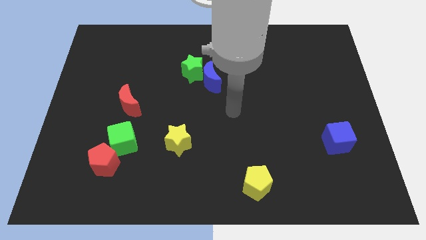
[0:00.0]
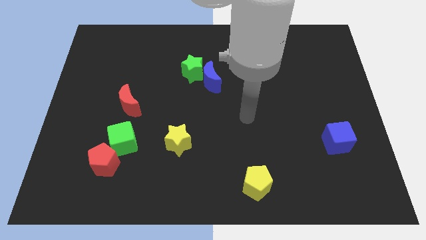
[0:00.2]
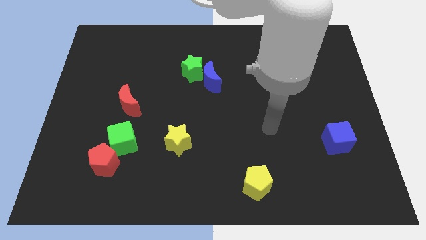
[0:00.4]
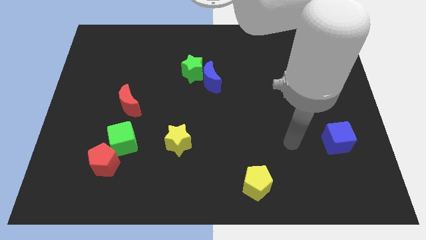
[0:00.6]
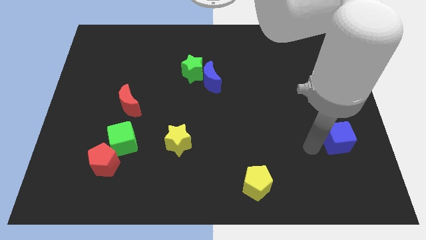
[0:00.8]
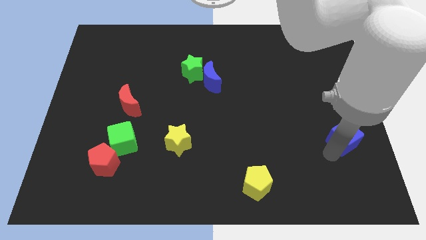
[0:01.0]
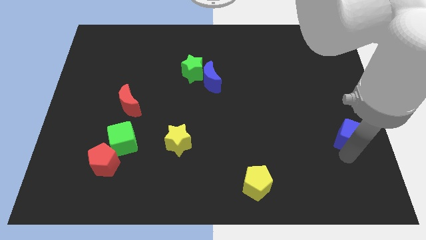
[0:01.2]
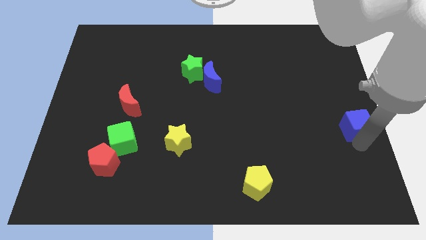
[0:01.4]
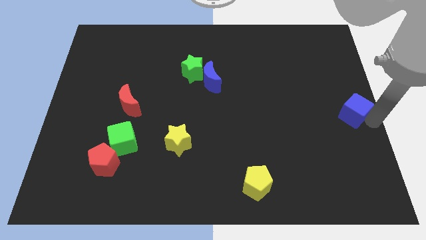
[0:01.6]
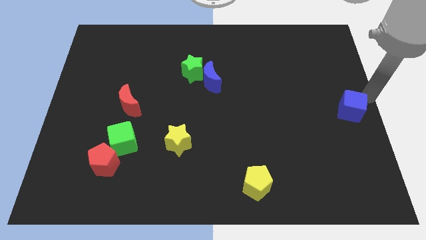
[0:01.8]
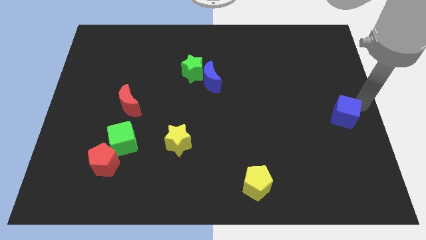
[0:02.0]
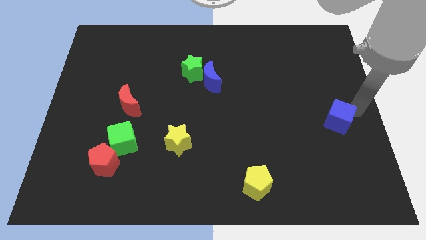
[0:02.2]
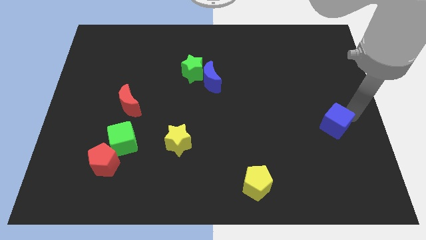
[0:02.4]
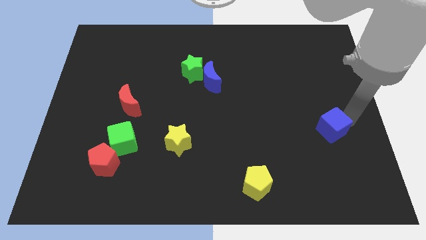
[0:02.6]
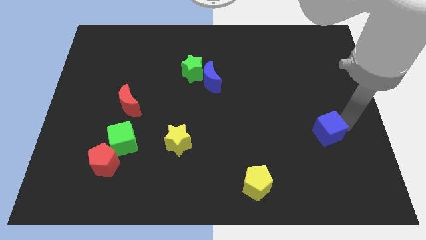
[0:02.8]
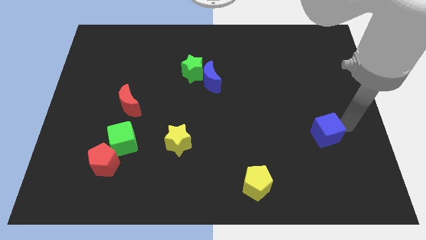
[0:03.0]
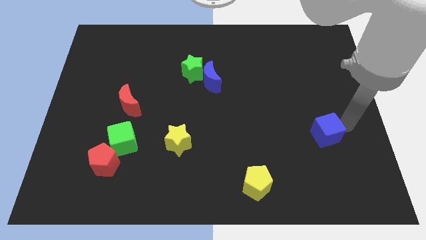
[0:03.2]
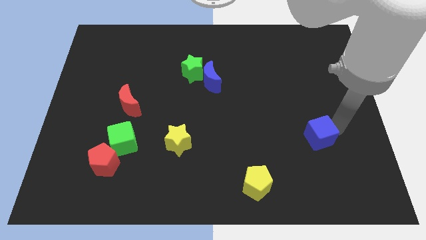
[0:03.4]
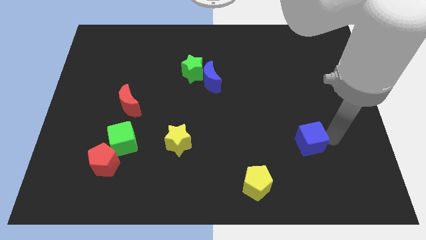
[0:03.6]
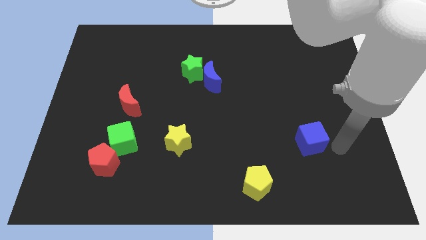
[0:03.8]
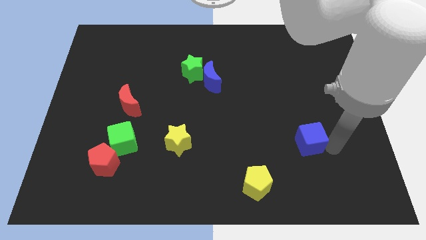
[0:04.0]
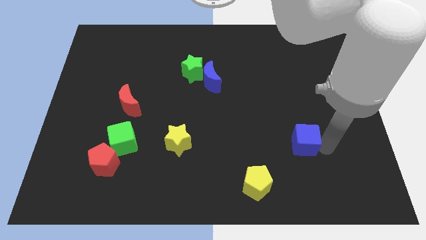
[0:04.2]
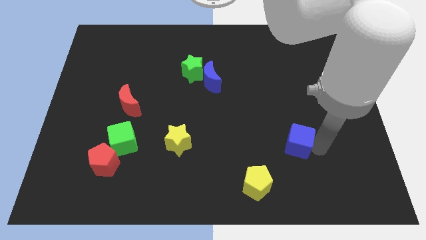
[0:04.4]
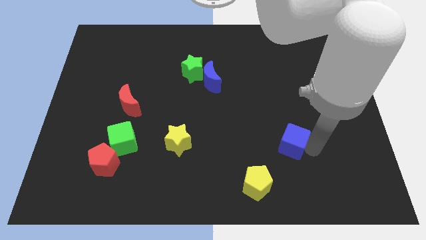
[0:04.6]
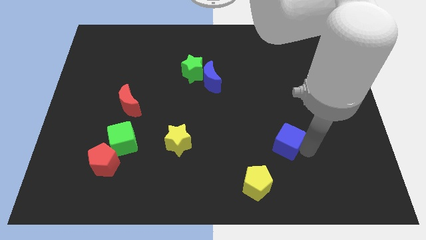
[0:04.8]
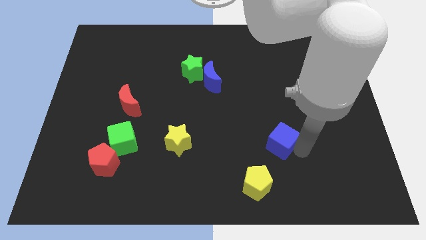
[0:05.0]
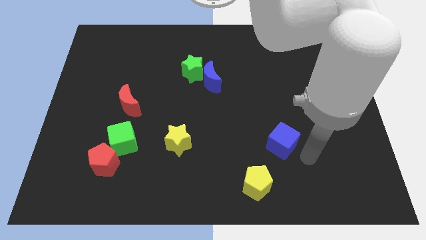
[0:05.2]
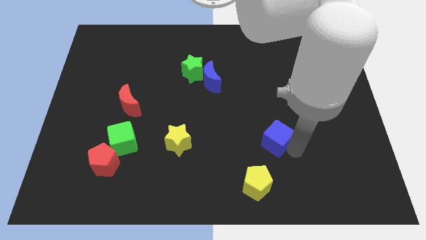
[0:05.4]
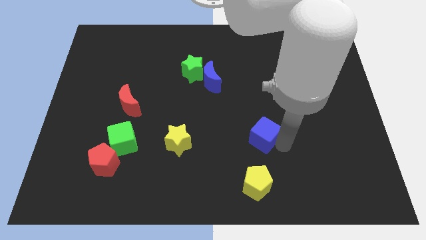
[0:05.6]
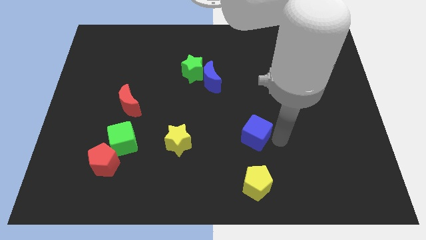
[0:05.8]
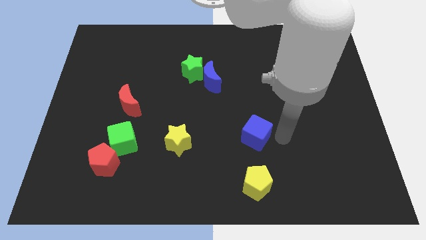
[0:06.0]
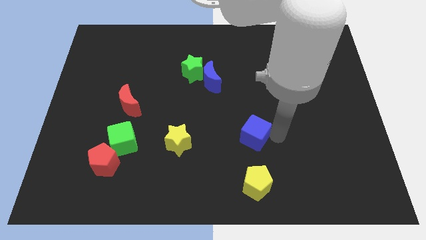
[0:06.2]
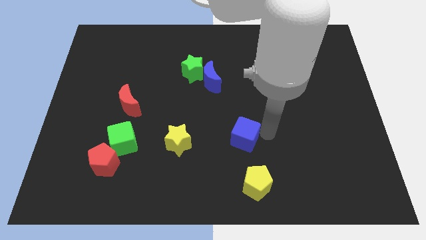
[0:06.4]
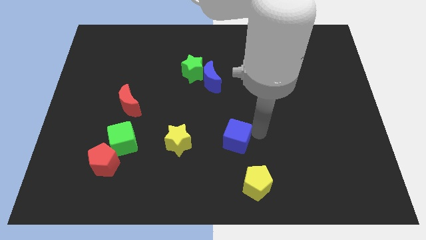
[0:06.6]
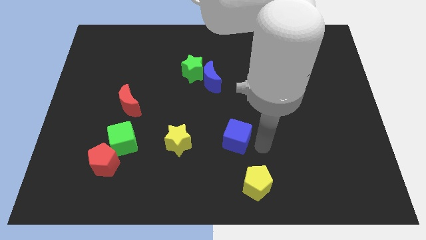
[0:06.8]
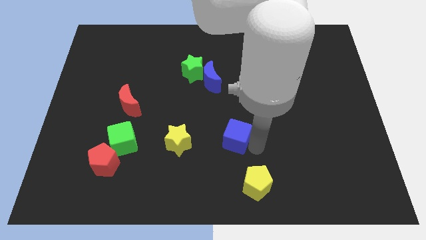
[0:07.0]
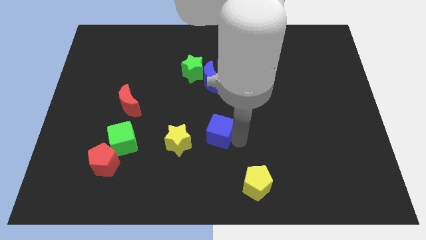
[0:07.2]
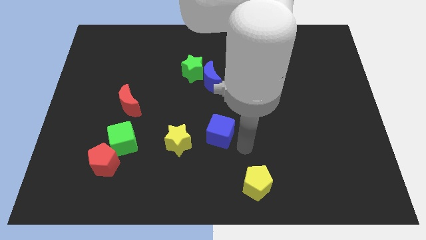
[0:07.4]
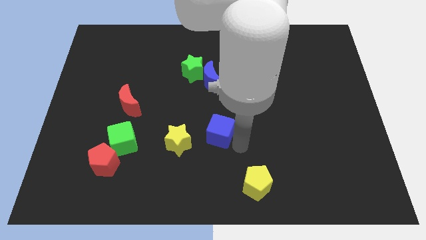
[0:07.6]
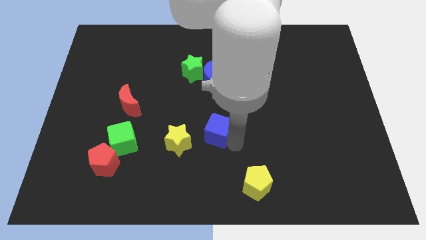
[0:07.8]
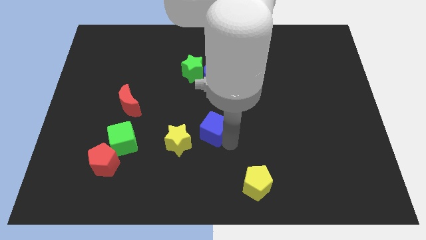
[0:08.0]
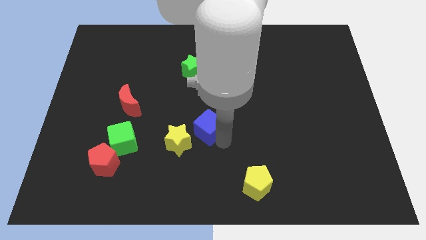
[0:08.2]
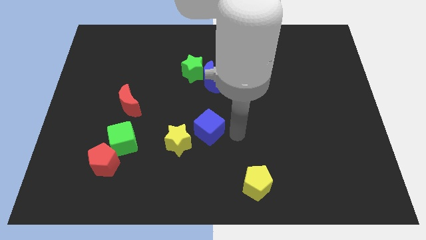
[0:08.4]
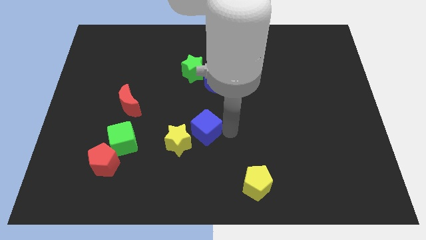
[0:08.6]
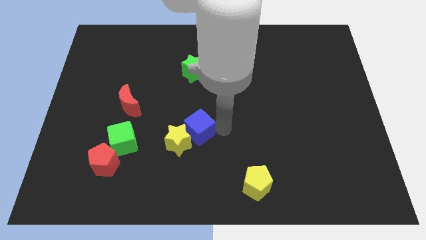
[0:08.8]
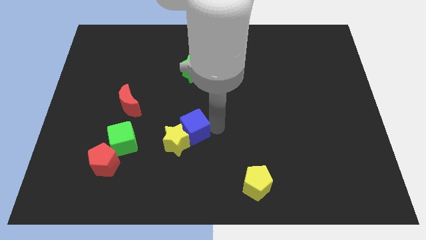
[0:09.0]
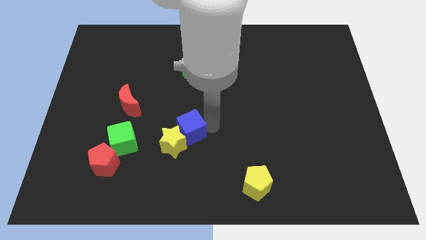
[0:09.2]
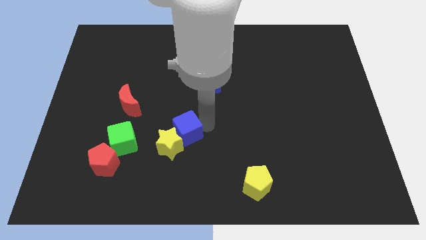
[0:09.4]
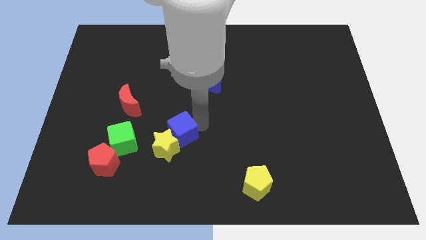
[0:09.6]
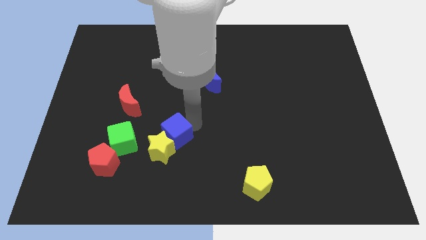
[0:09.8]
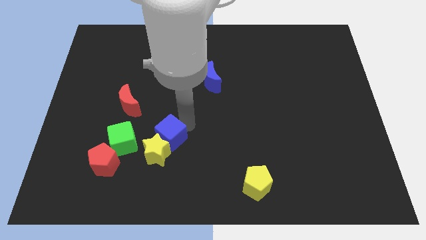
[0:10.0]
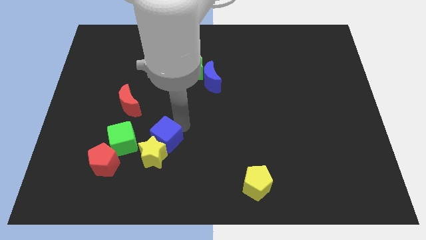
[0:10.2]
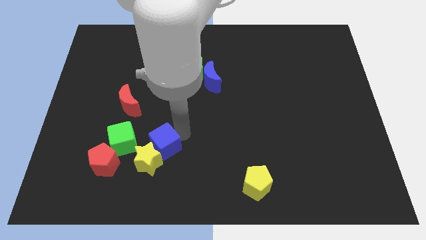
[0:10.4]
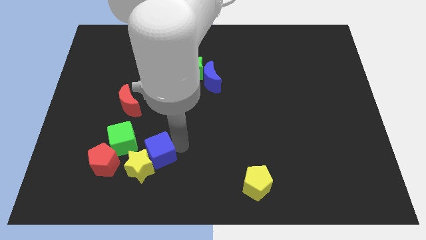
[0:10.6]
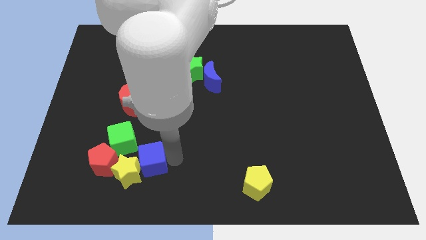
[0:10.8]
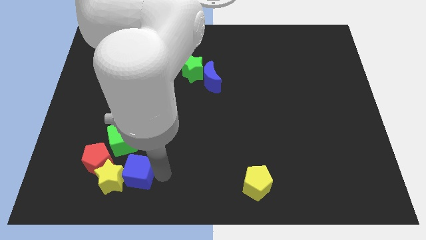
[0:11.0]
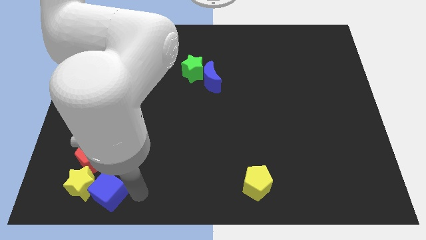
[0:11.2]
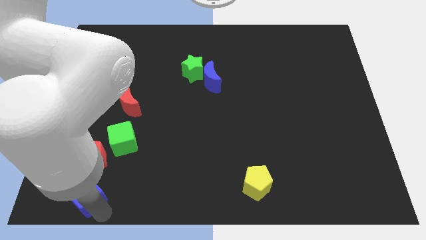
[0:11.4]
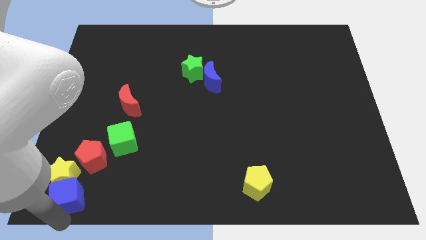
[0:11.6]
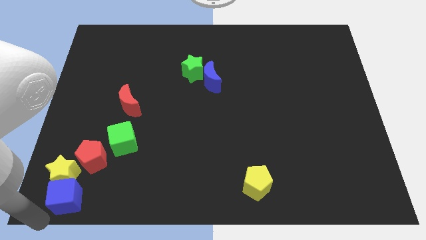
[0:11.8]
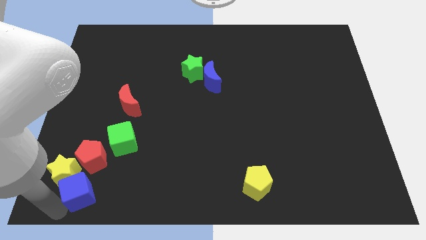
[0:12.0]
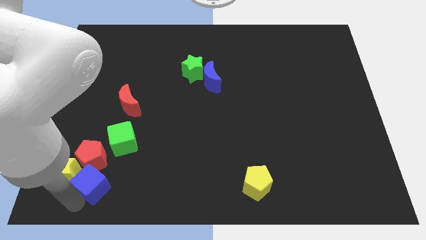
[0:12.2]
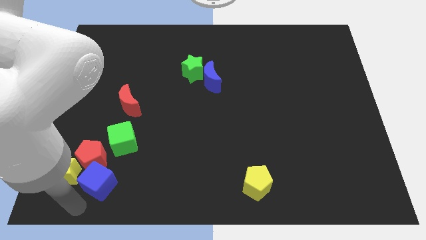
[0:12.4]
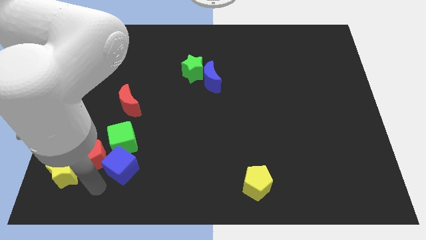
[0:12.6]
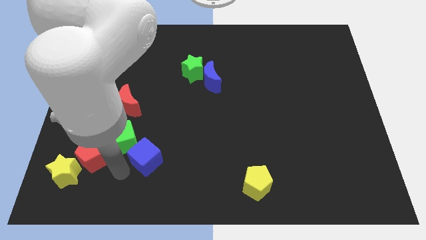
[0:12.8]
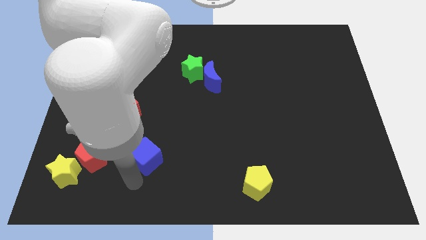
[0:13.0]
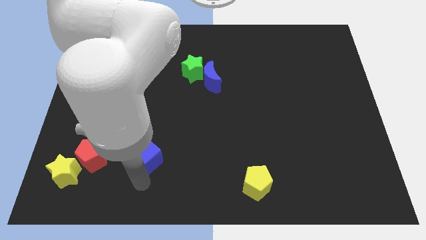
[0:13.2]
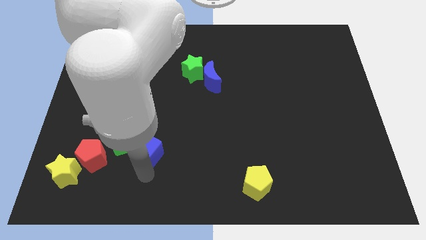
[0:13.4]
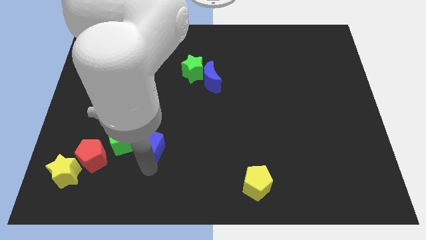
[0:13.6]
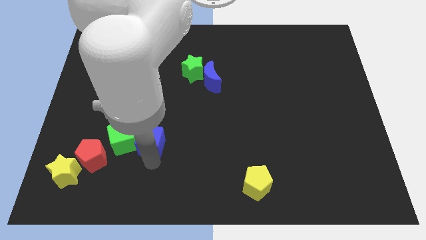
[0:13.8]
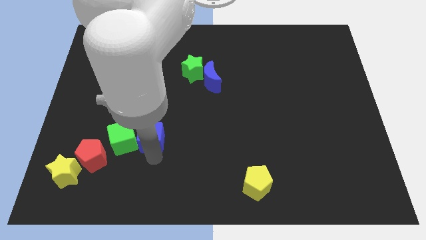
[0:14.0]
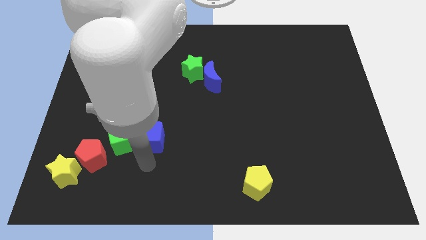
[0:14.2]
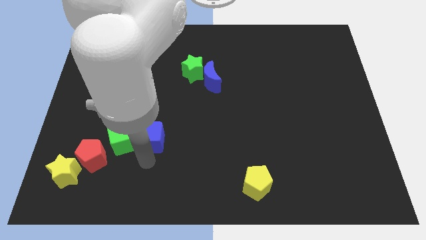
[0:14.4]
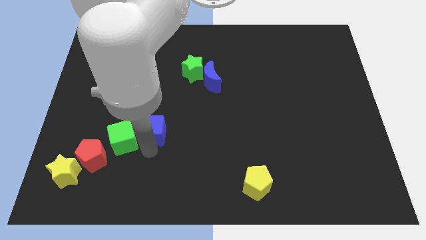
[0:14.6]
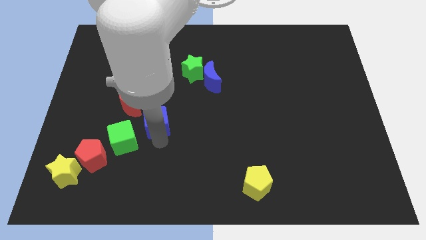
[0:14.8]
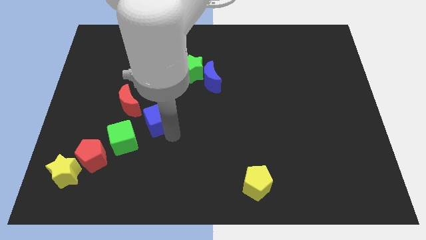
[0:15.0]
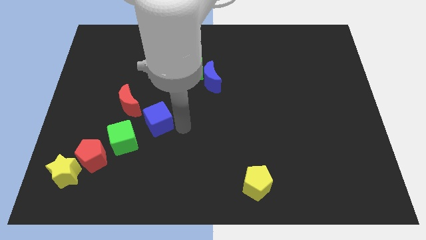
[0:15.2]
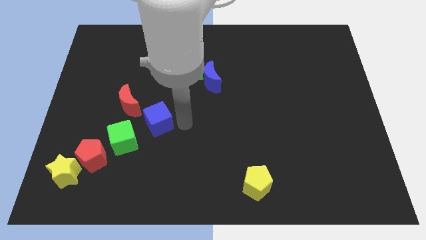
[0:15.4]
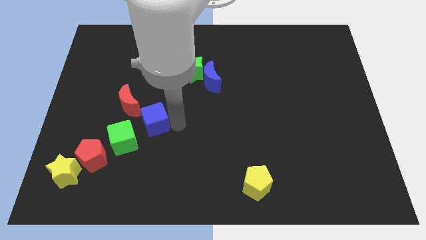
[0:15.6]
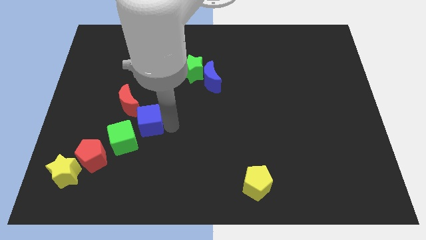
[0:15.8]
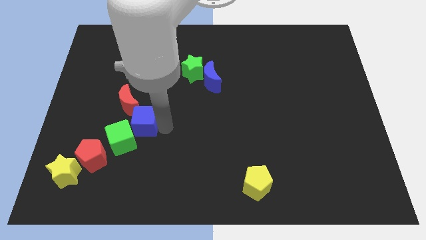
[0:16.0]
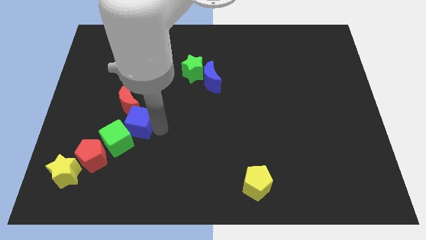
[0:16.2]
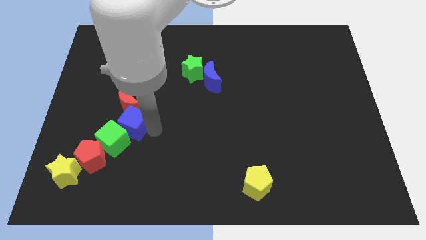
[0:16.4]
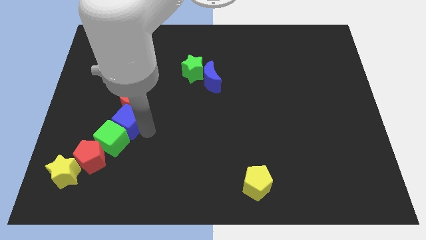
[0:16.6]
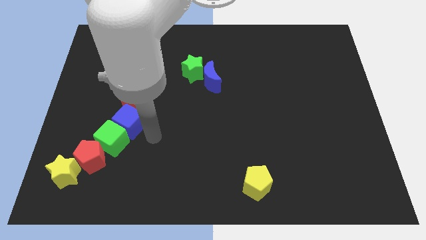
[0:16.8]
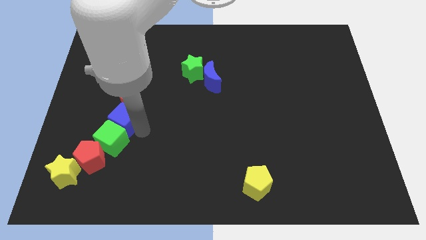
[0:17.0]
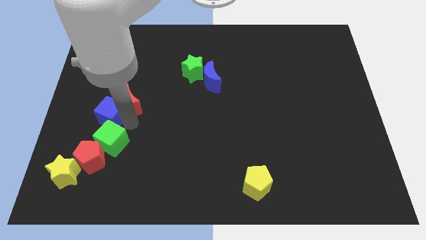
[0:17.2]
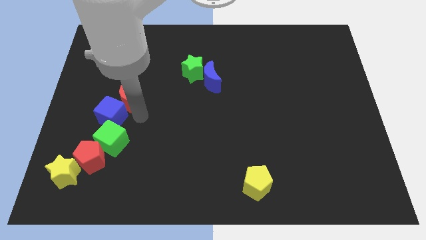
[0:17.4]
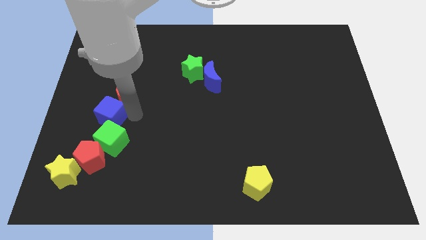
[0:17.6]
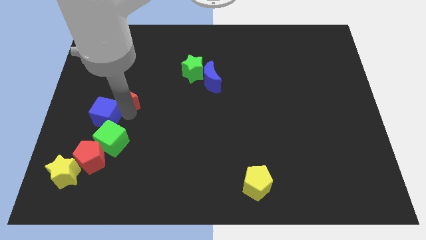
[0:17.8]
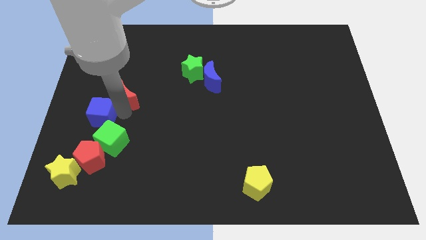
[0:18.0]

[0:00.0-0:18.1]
move the blue cube to the center left
